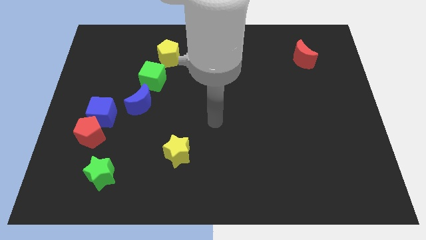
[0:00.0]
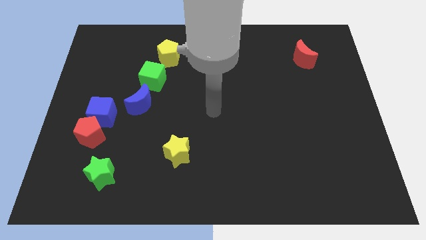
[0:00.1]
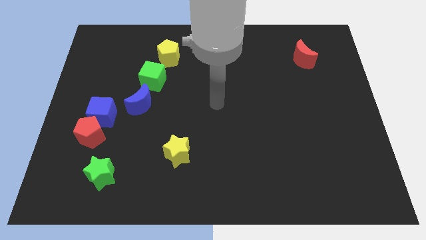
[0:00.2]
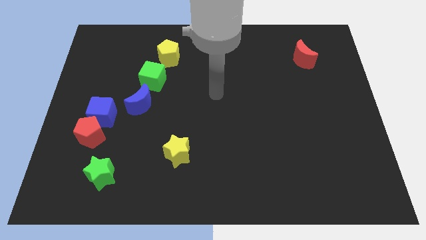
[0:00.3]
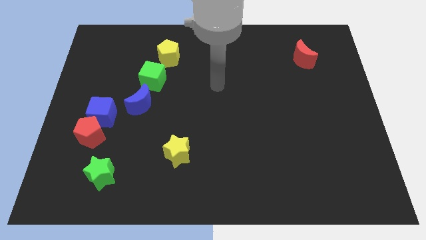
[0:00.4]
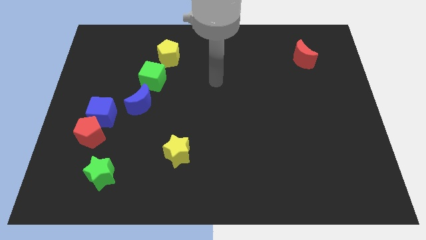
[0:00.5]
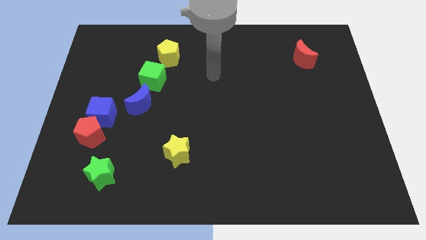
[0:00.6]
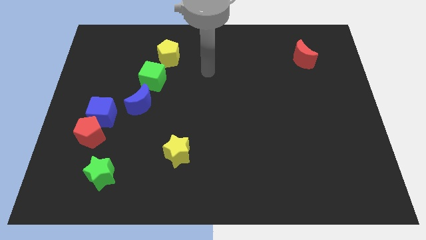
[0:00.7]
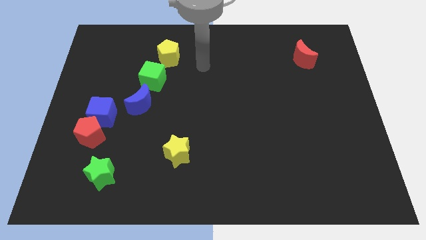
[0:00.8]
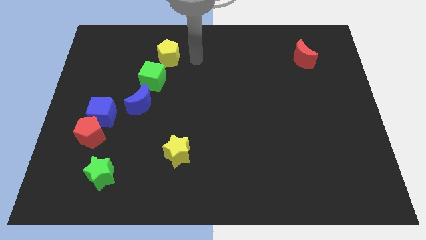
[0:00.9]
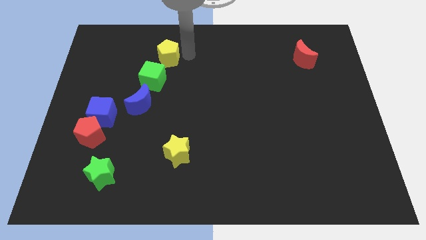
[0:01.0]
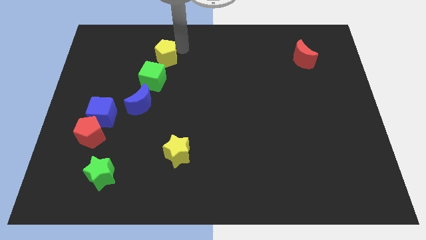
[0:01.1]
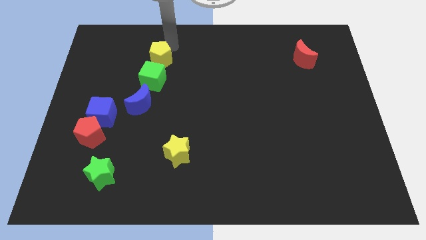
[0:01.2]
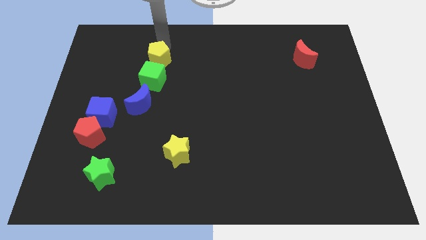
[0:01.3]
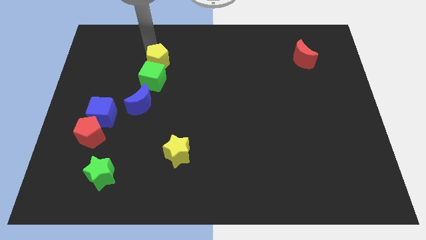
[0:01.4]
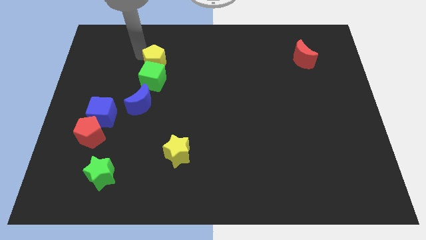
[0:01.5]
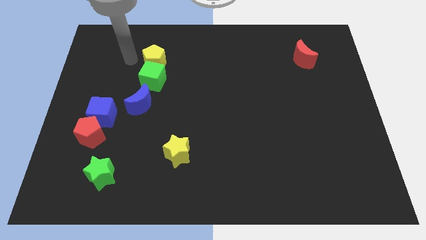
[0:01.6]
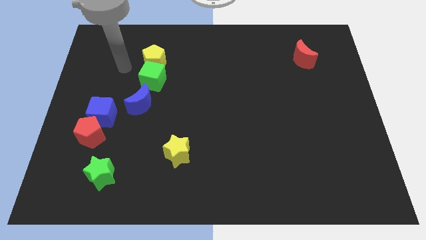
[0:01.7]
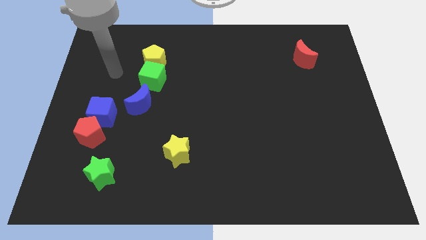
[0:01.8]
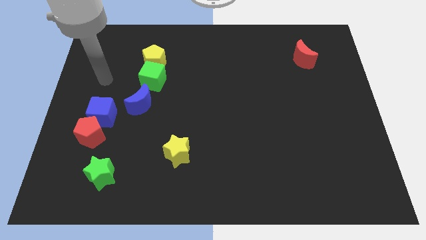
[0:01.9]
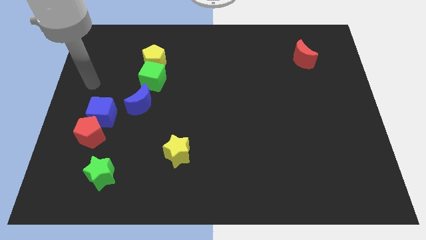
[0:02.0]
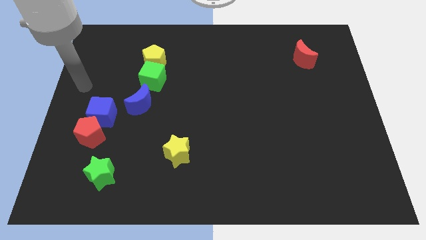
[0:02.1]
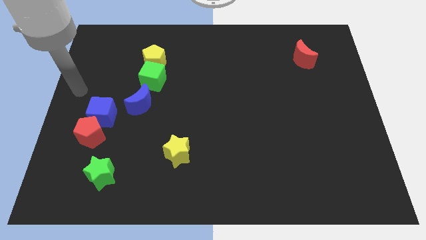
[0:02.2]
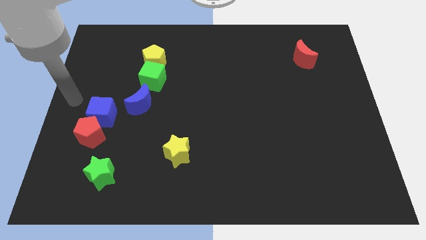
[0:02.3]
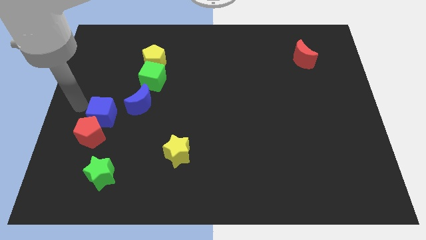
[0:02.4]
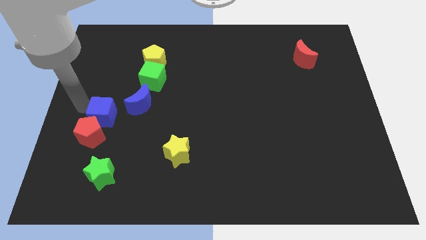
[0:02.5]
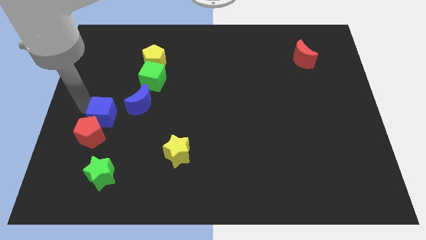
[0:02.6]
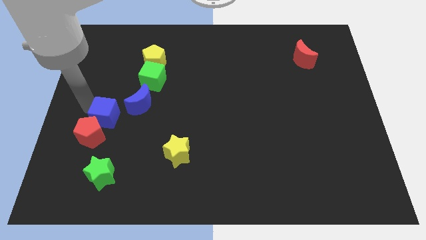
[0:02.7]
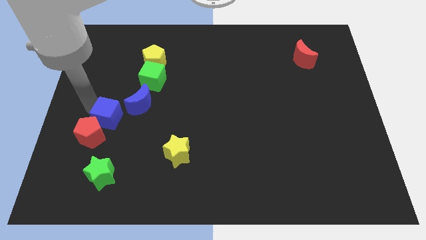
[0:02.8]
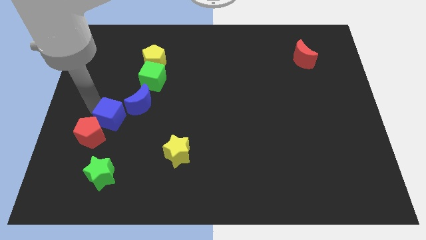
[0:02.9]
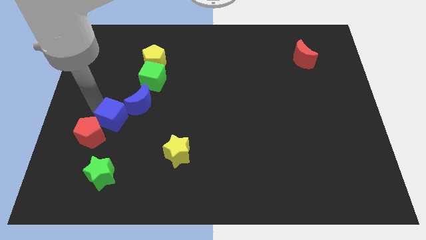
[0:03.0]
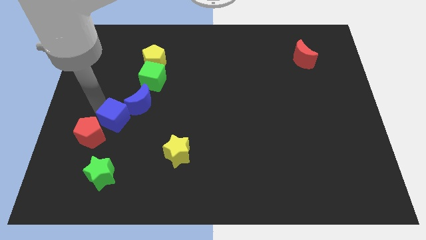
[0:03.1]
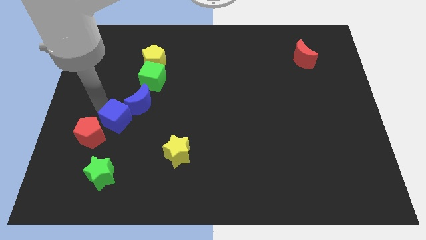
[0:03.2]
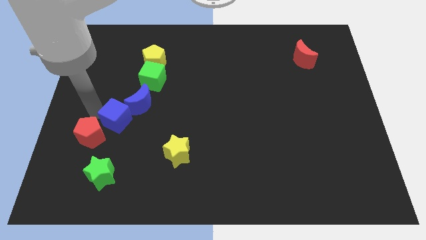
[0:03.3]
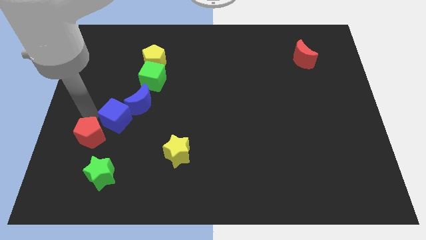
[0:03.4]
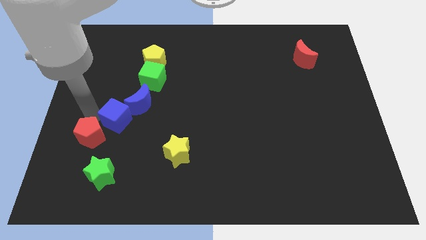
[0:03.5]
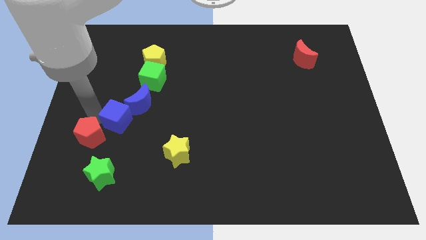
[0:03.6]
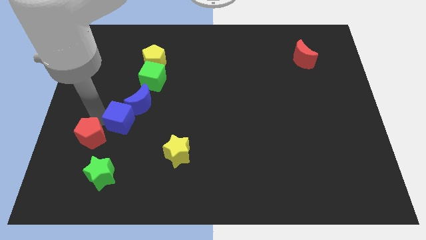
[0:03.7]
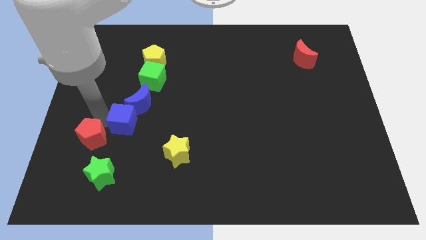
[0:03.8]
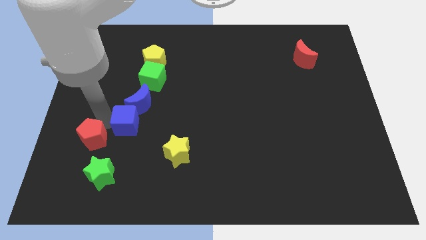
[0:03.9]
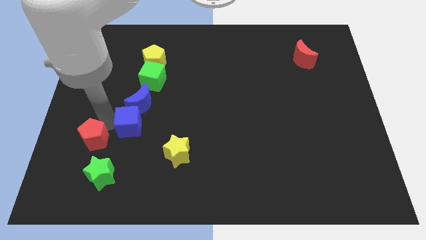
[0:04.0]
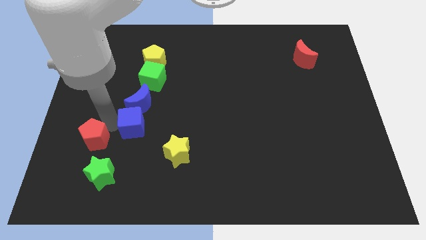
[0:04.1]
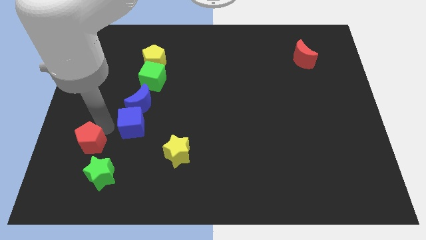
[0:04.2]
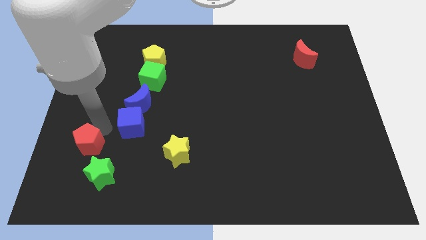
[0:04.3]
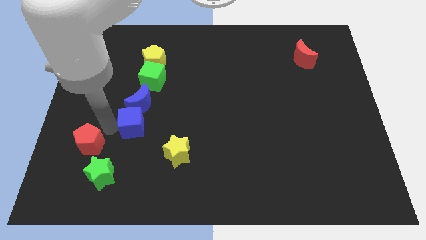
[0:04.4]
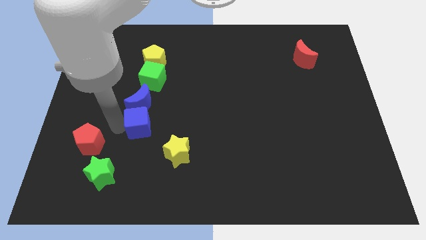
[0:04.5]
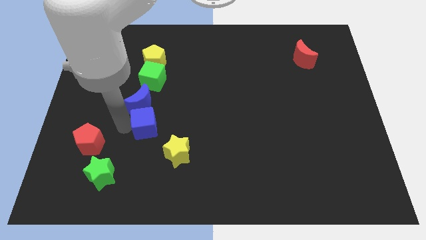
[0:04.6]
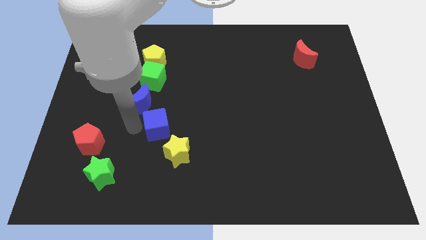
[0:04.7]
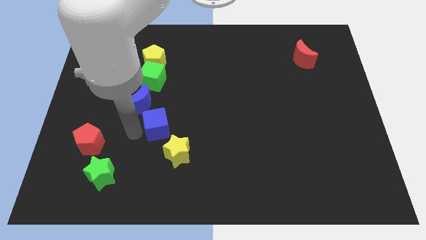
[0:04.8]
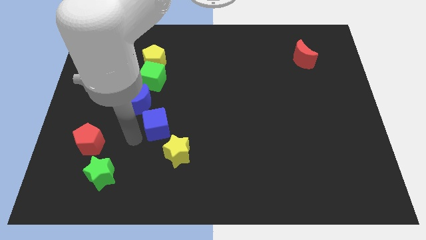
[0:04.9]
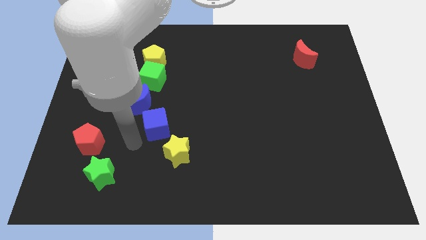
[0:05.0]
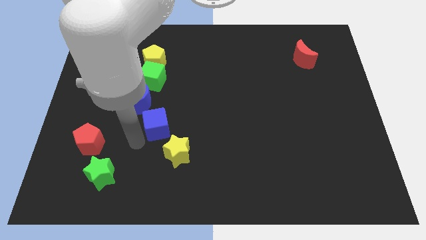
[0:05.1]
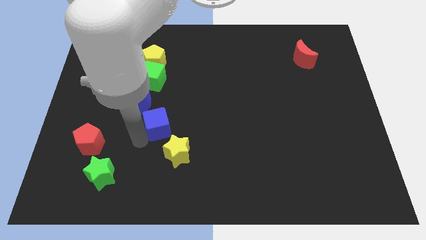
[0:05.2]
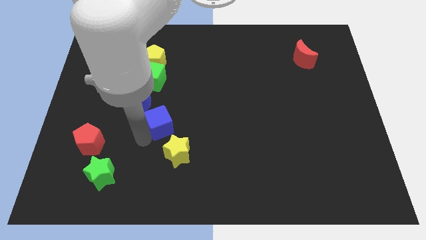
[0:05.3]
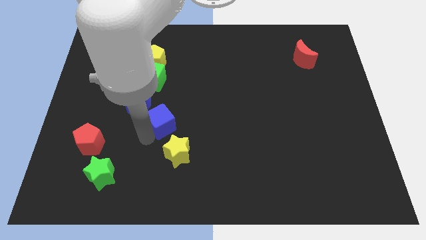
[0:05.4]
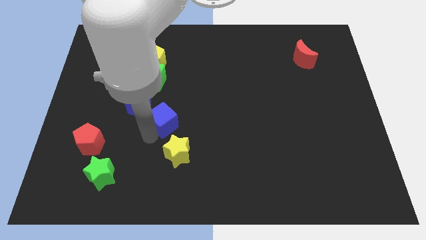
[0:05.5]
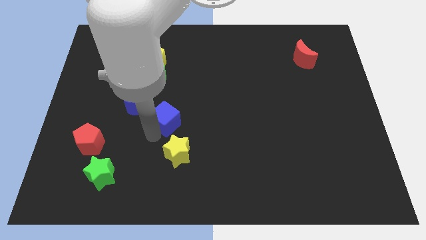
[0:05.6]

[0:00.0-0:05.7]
slide the blue cube to the middle

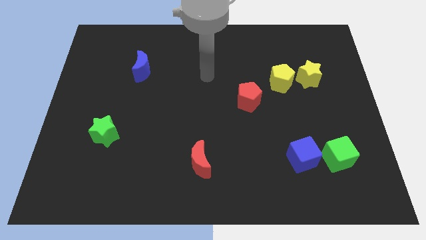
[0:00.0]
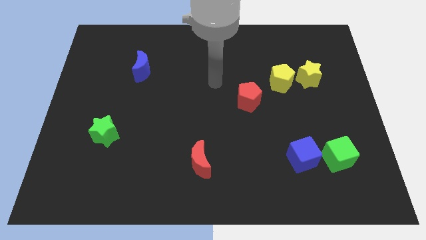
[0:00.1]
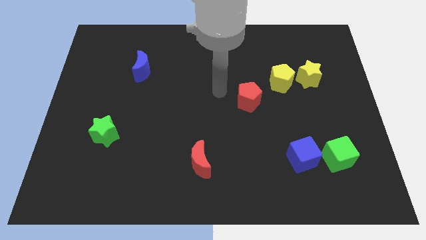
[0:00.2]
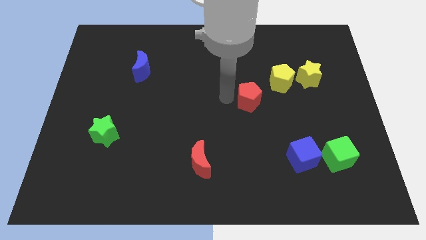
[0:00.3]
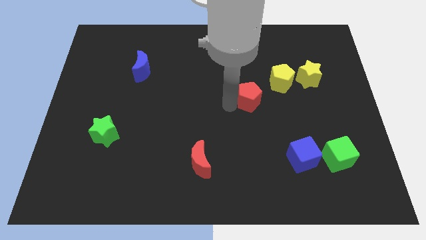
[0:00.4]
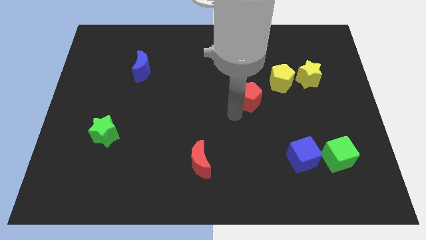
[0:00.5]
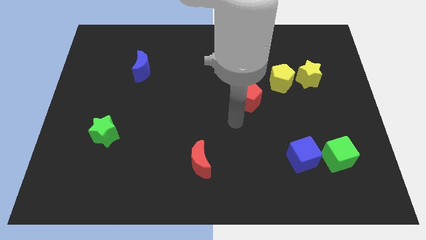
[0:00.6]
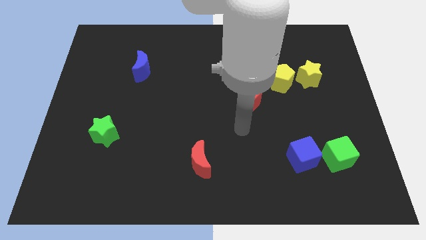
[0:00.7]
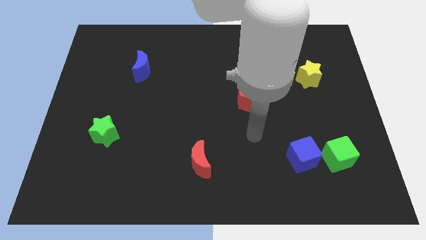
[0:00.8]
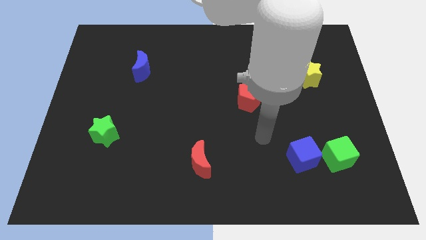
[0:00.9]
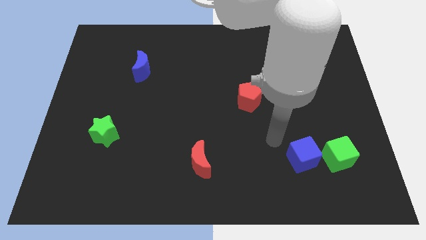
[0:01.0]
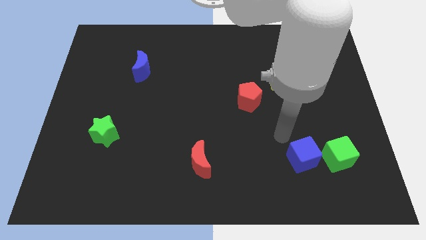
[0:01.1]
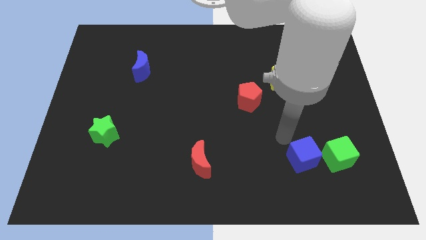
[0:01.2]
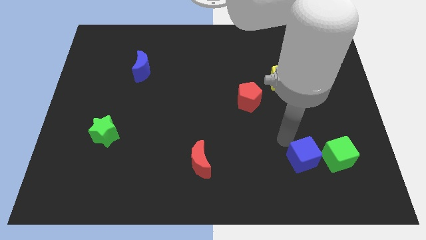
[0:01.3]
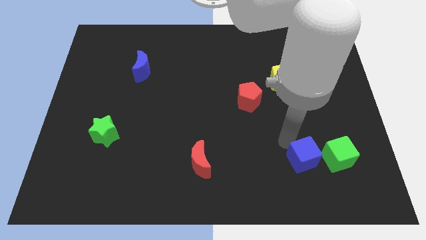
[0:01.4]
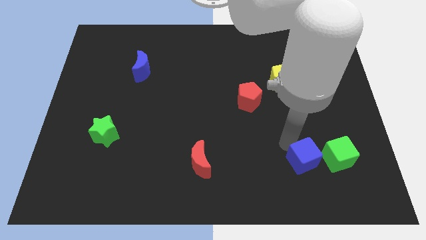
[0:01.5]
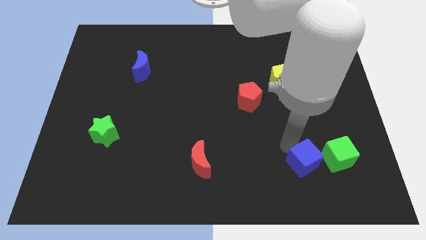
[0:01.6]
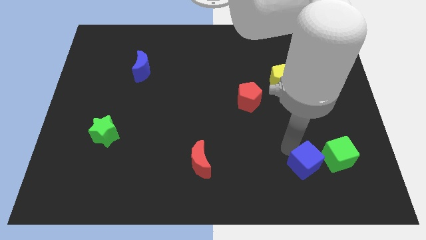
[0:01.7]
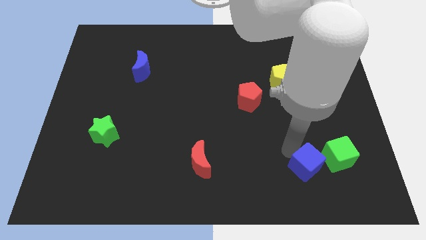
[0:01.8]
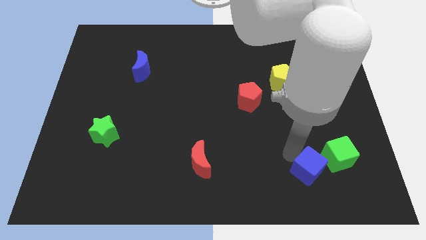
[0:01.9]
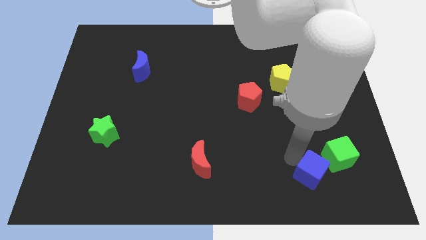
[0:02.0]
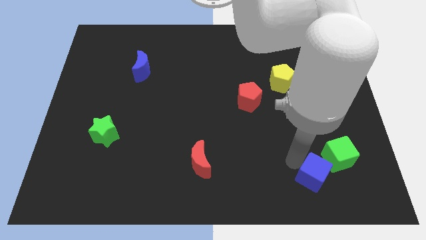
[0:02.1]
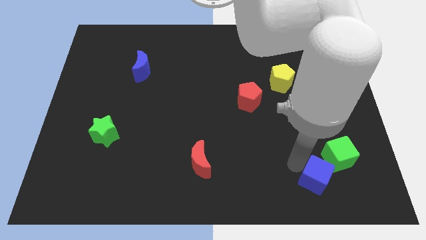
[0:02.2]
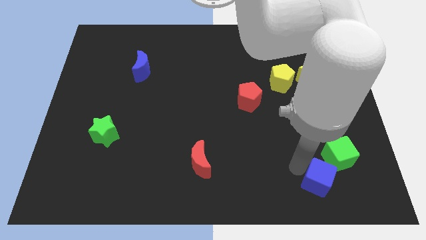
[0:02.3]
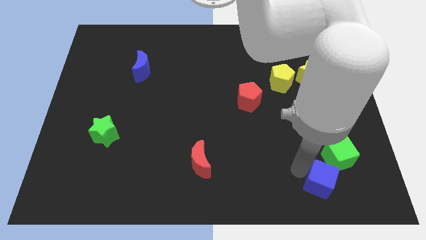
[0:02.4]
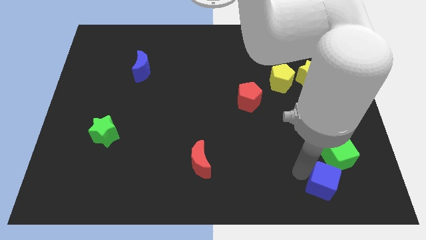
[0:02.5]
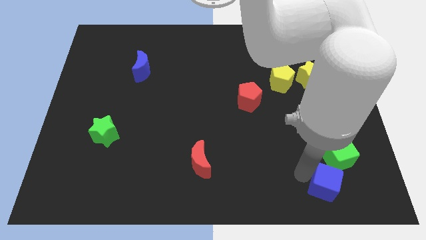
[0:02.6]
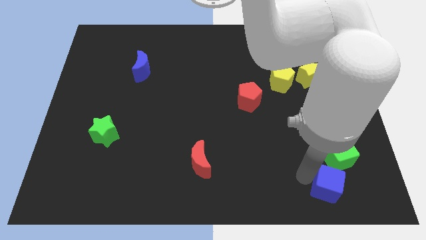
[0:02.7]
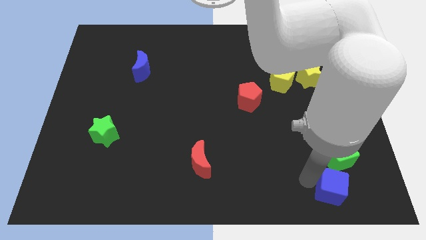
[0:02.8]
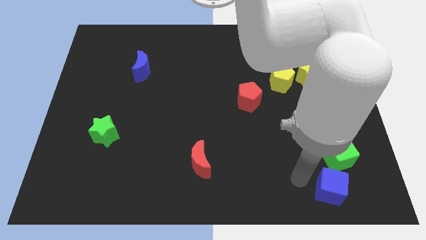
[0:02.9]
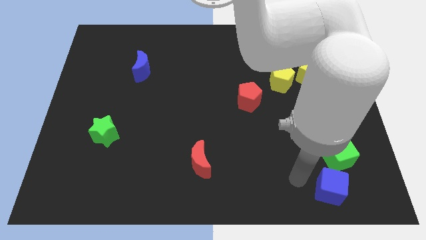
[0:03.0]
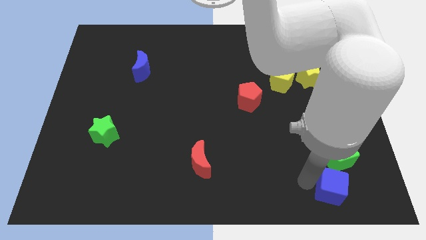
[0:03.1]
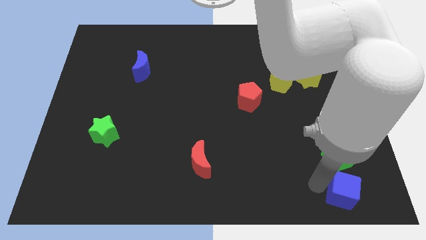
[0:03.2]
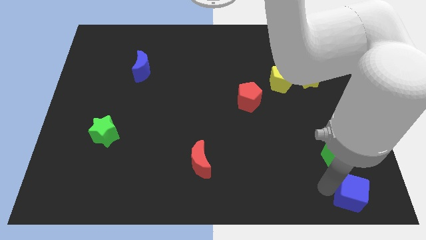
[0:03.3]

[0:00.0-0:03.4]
move the blue cube to the lower right corner
